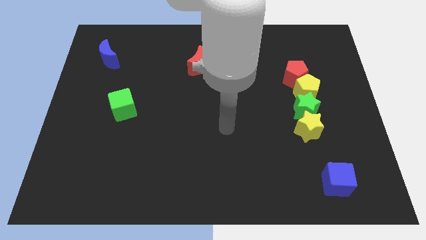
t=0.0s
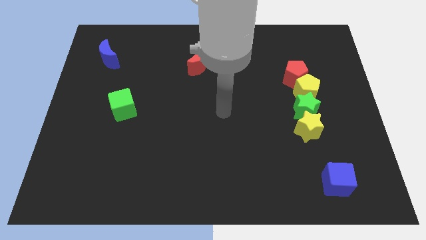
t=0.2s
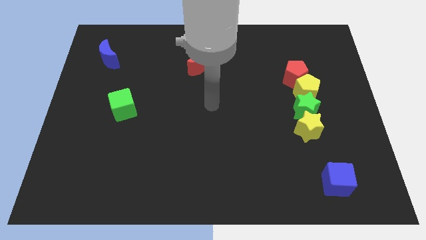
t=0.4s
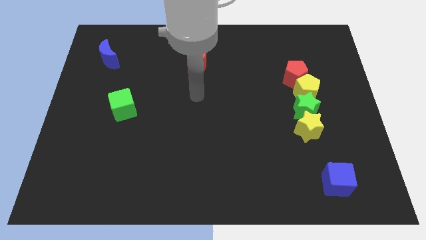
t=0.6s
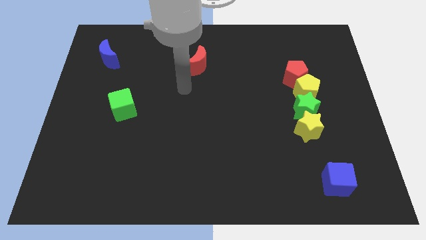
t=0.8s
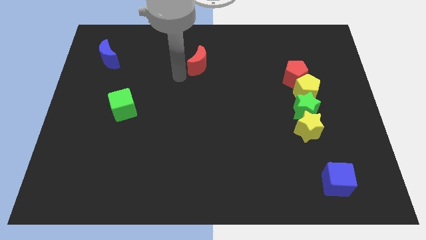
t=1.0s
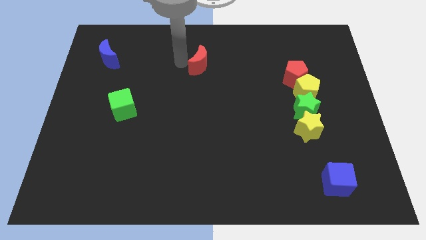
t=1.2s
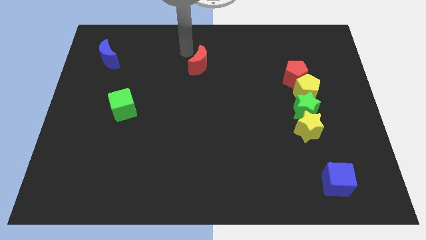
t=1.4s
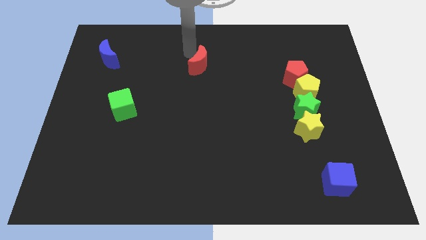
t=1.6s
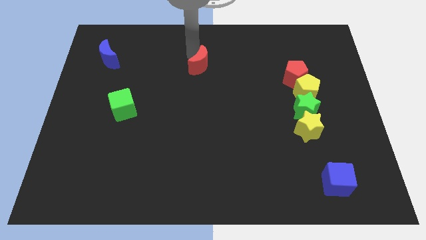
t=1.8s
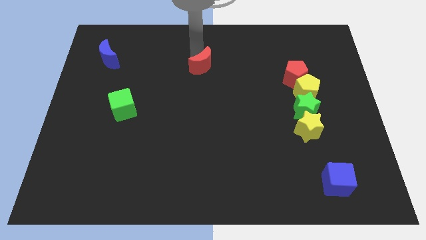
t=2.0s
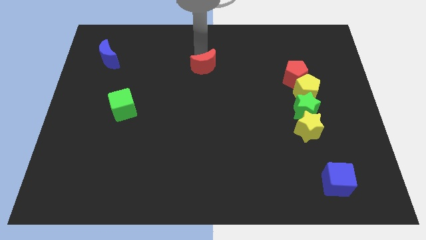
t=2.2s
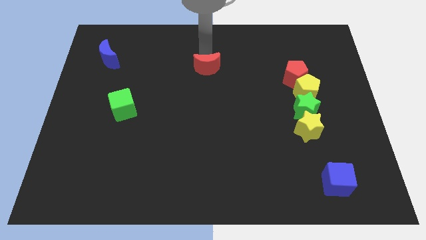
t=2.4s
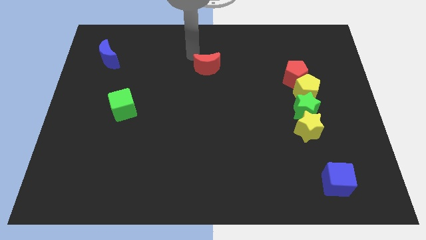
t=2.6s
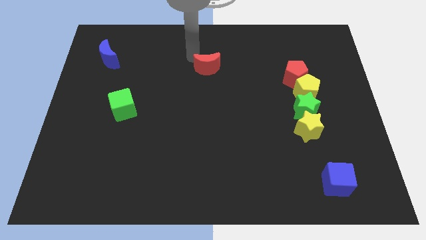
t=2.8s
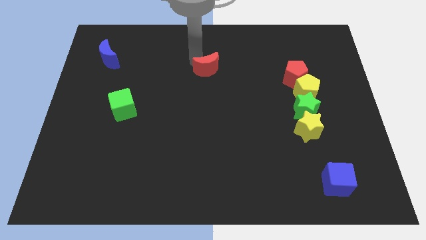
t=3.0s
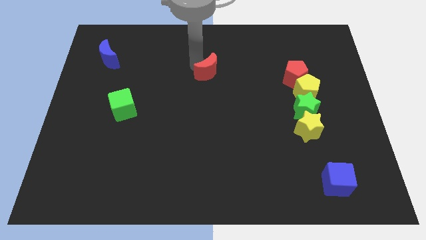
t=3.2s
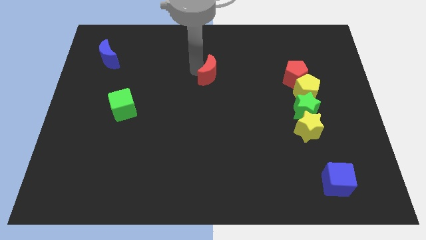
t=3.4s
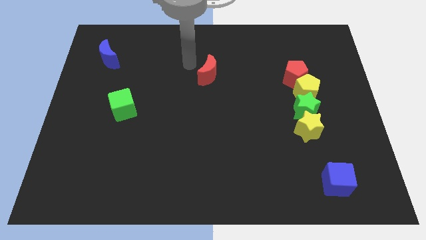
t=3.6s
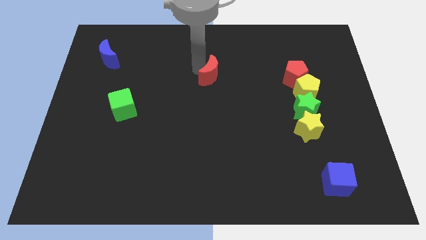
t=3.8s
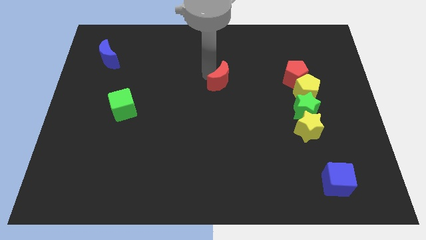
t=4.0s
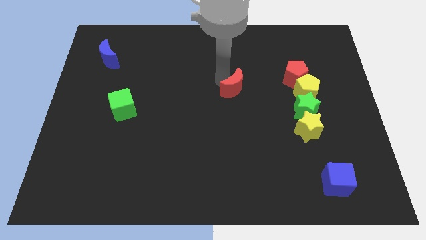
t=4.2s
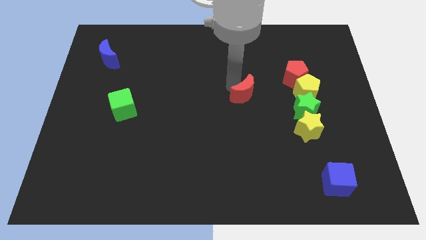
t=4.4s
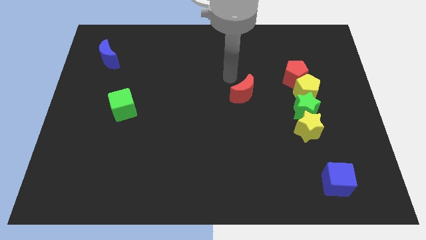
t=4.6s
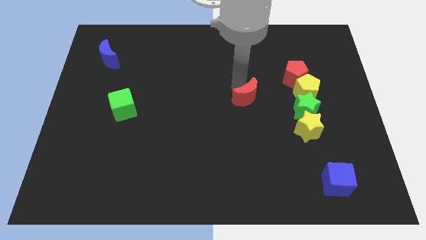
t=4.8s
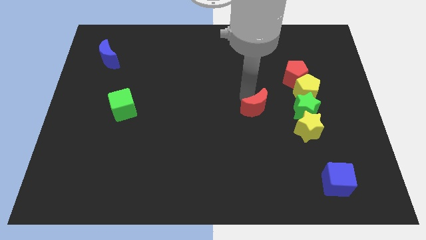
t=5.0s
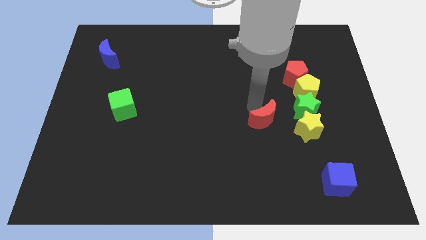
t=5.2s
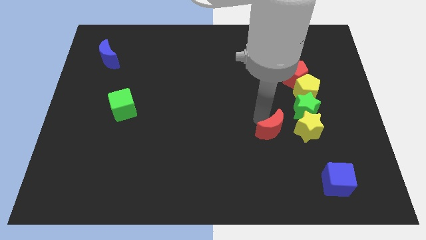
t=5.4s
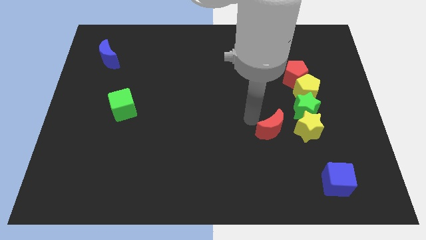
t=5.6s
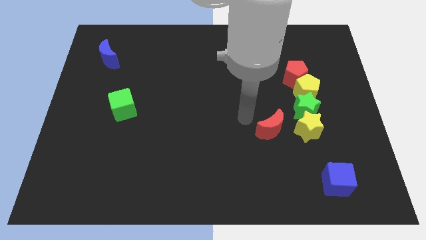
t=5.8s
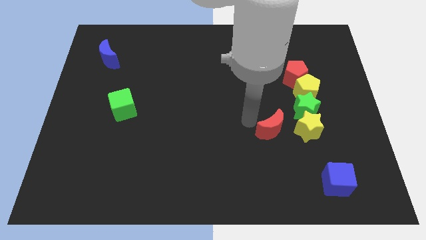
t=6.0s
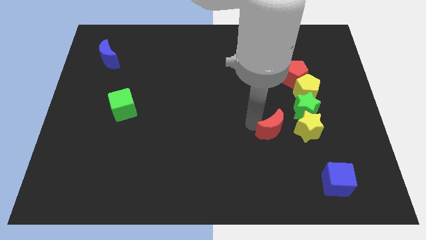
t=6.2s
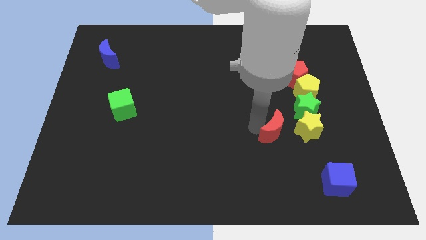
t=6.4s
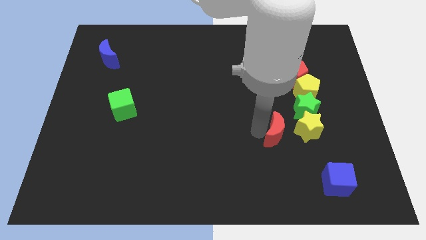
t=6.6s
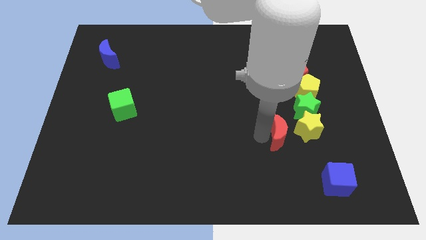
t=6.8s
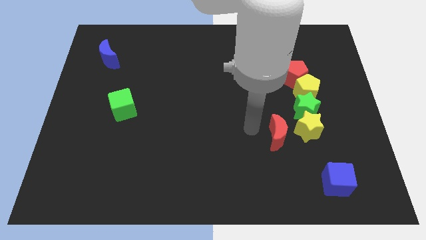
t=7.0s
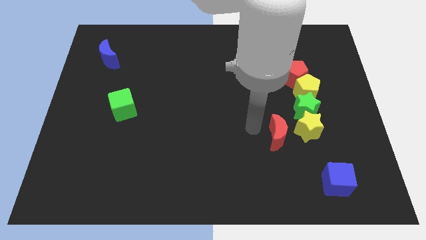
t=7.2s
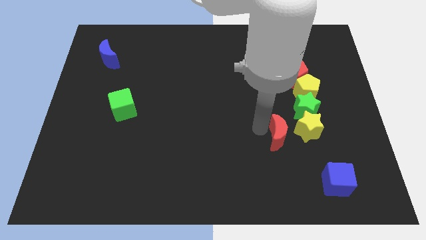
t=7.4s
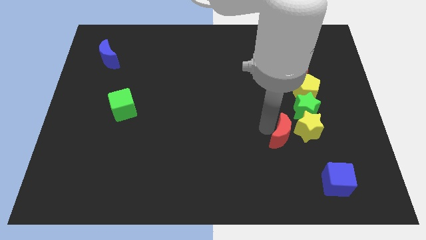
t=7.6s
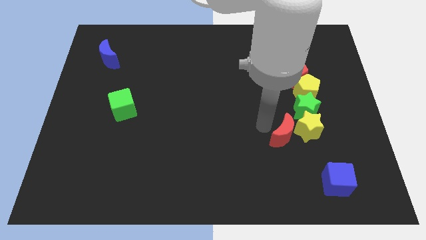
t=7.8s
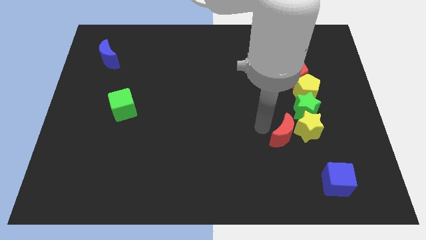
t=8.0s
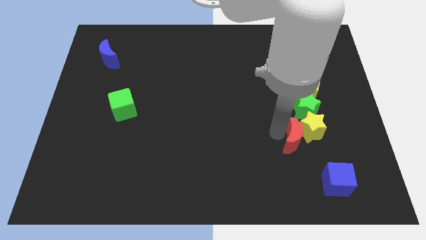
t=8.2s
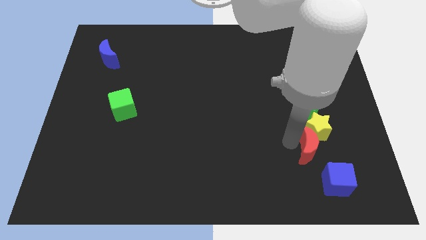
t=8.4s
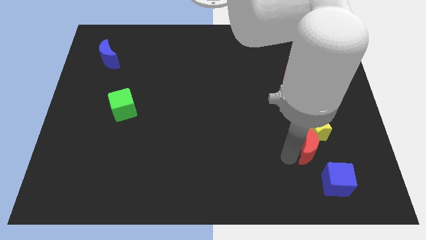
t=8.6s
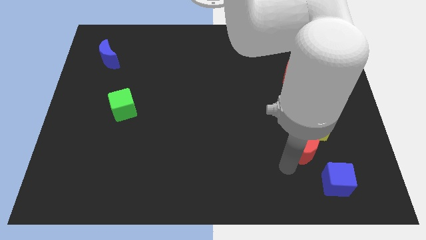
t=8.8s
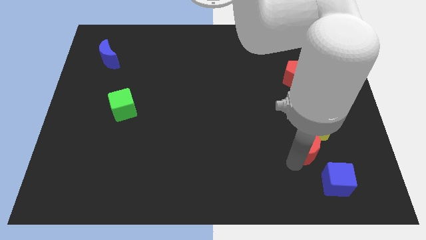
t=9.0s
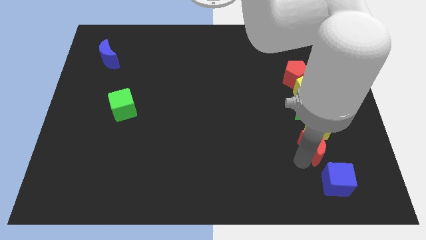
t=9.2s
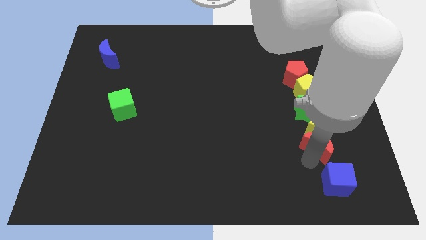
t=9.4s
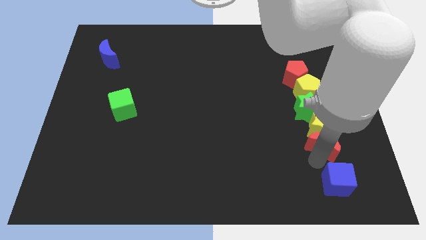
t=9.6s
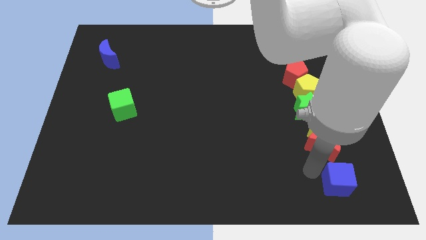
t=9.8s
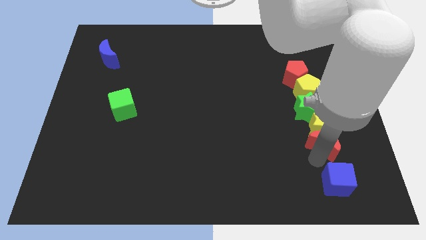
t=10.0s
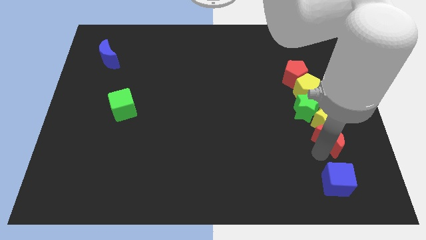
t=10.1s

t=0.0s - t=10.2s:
move the red moon to the bottom right of the green star

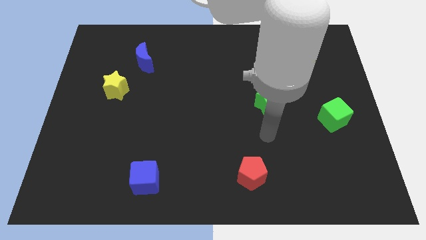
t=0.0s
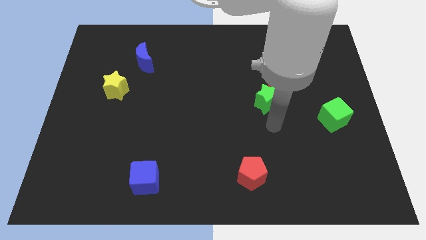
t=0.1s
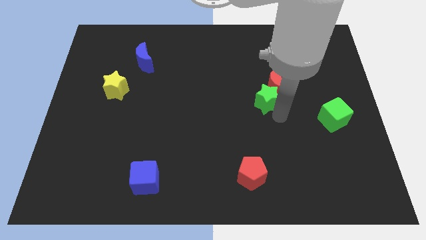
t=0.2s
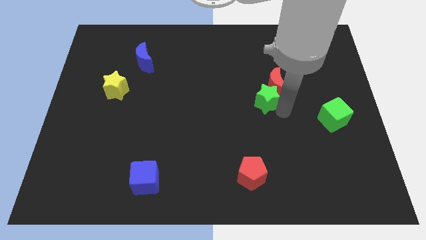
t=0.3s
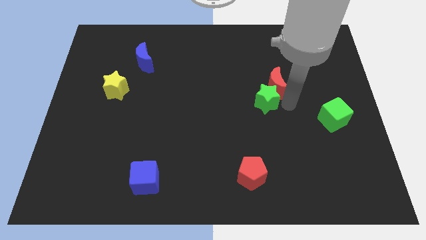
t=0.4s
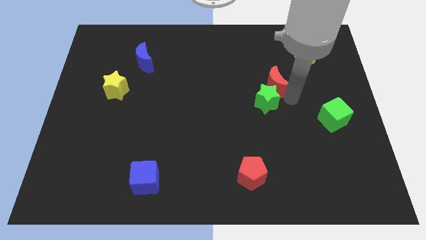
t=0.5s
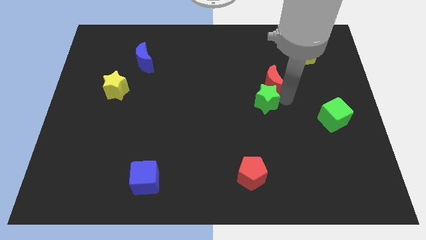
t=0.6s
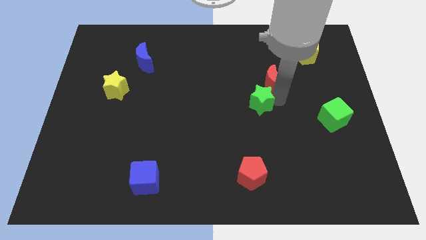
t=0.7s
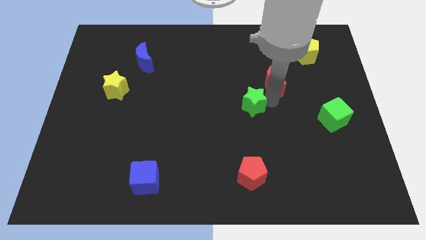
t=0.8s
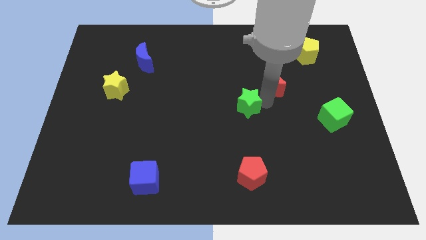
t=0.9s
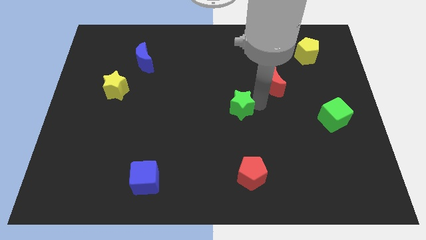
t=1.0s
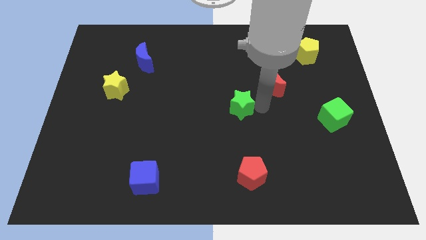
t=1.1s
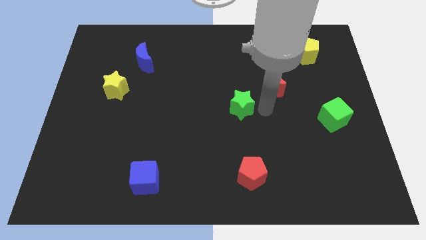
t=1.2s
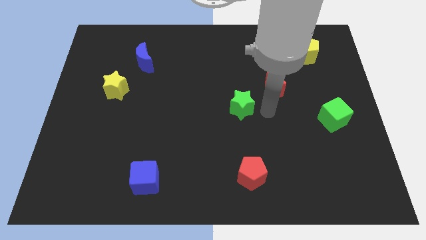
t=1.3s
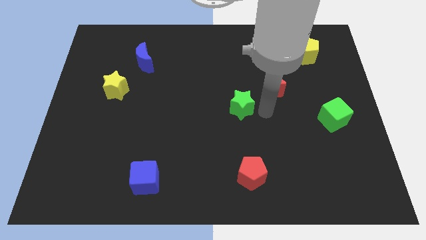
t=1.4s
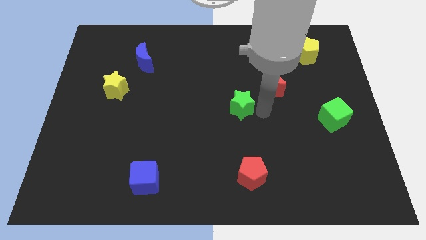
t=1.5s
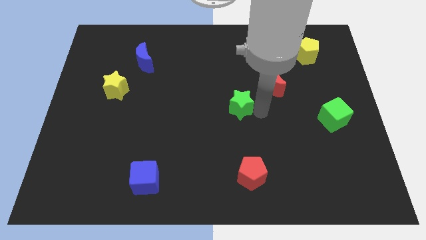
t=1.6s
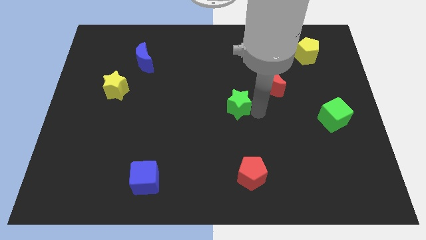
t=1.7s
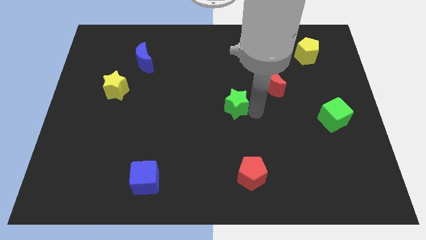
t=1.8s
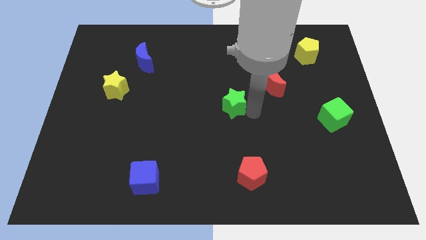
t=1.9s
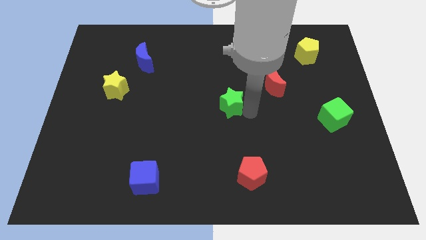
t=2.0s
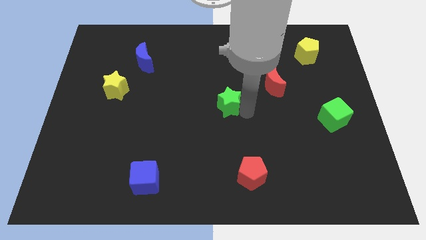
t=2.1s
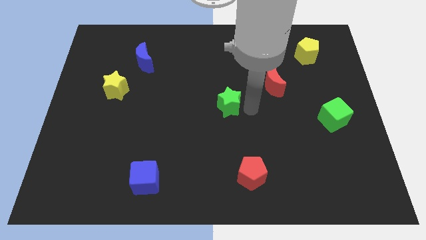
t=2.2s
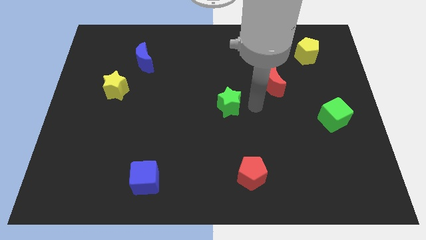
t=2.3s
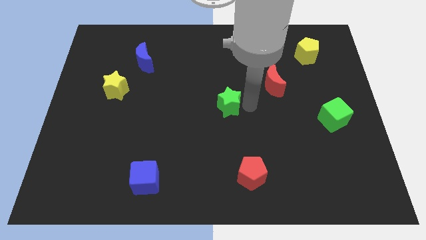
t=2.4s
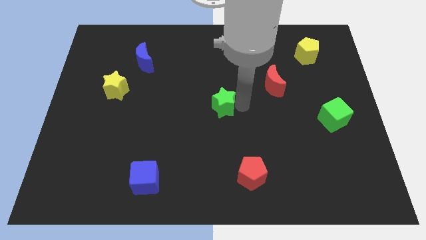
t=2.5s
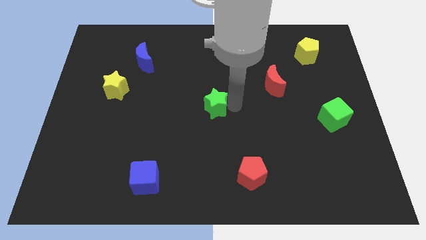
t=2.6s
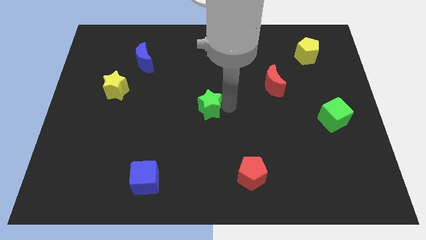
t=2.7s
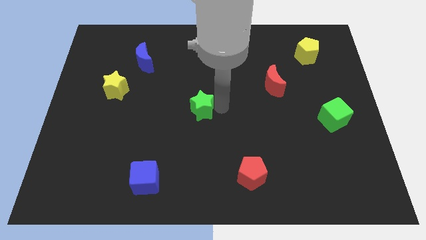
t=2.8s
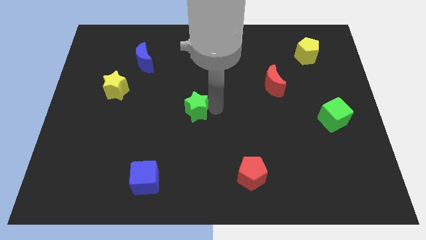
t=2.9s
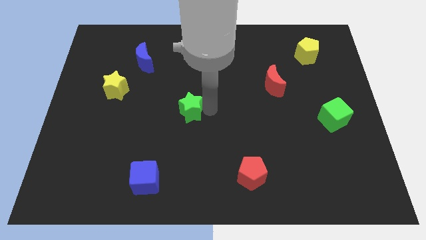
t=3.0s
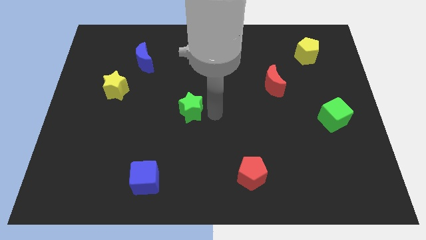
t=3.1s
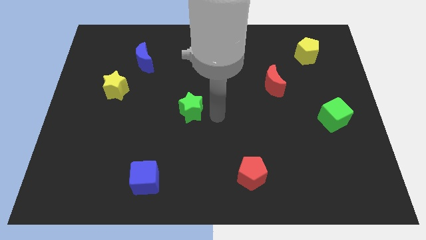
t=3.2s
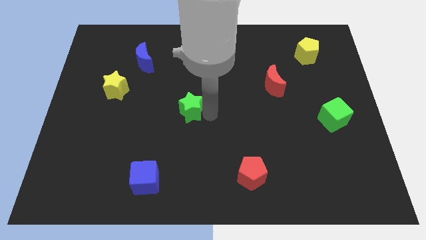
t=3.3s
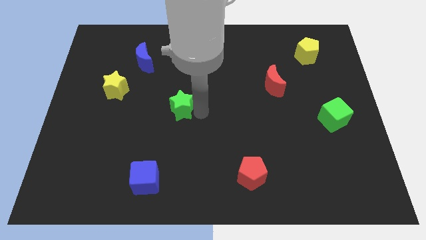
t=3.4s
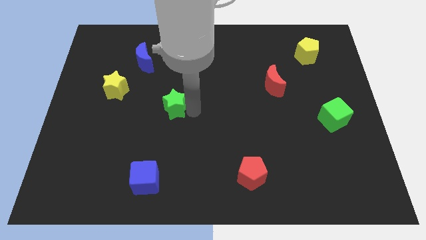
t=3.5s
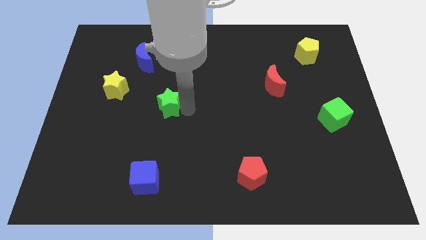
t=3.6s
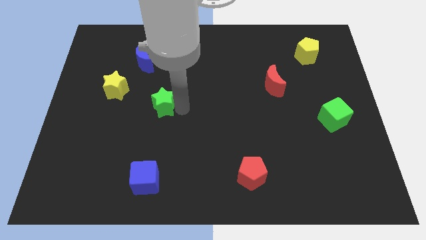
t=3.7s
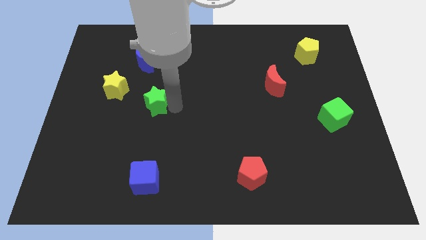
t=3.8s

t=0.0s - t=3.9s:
move the green star diagonally down and to the right of the yellow star
